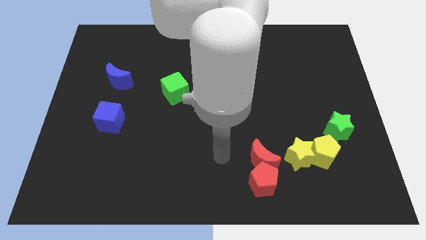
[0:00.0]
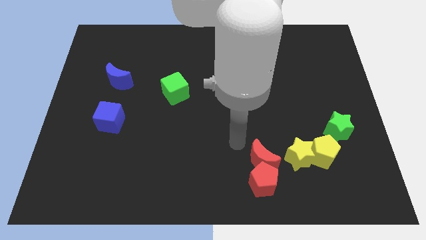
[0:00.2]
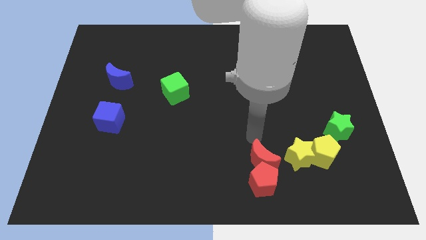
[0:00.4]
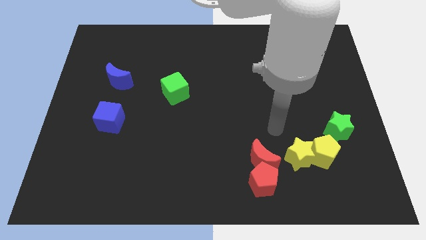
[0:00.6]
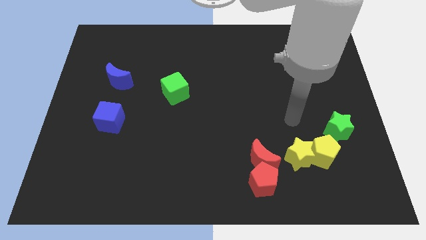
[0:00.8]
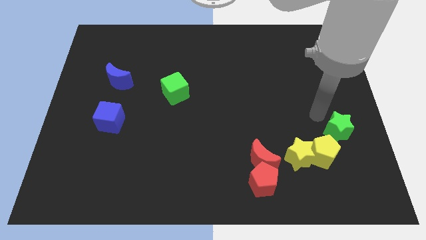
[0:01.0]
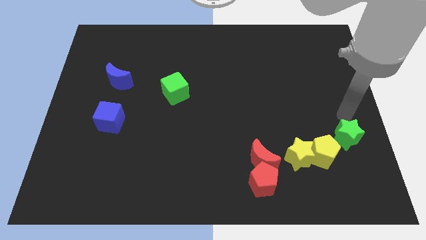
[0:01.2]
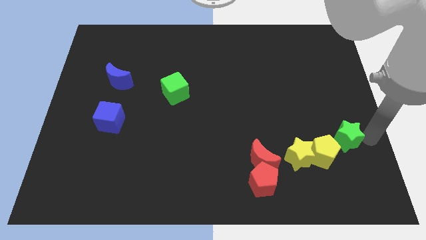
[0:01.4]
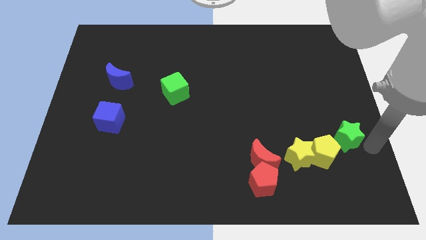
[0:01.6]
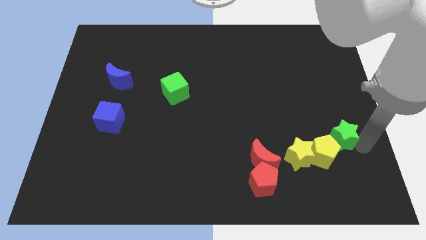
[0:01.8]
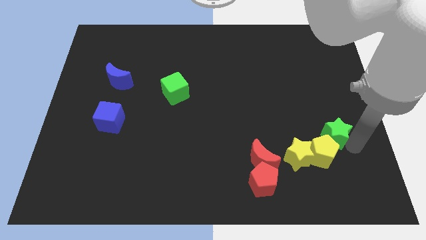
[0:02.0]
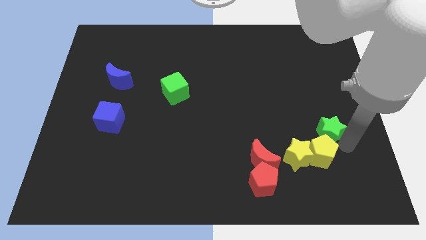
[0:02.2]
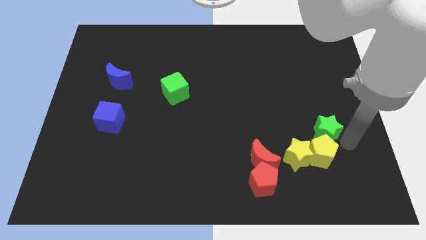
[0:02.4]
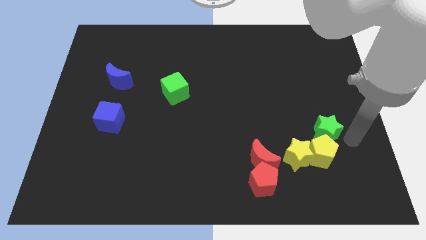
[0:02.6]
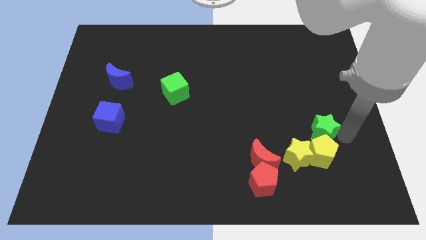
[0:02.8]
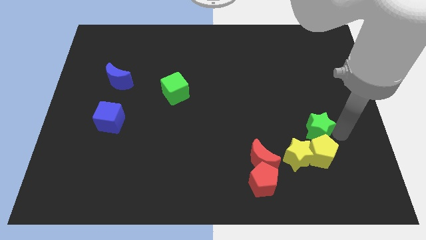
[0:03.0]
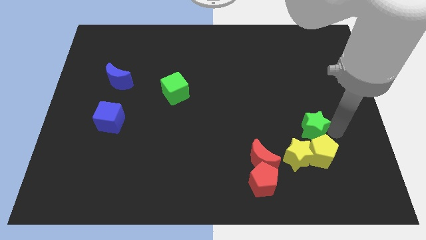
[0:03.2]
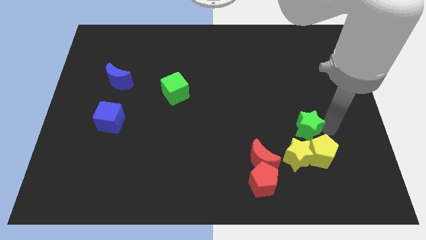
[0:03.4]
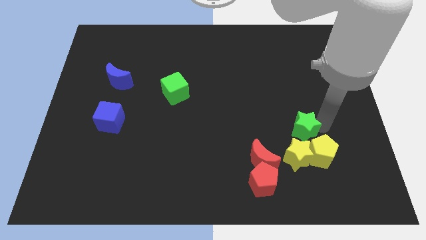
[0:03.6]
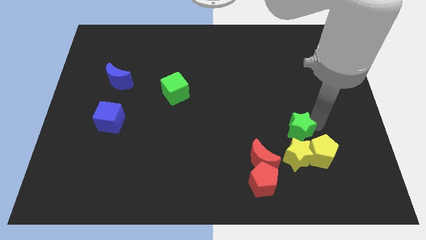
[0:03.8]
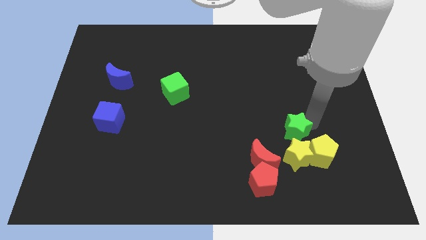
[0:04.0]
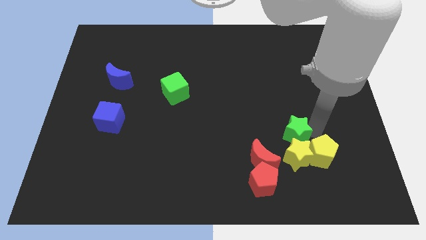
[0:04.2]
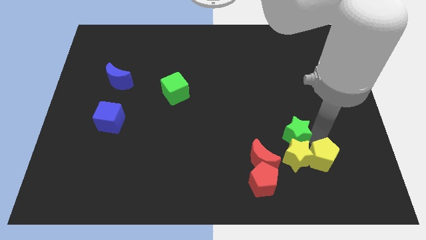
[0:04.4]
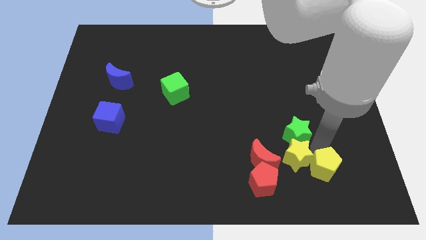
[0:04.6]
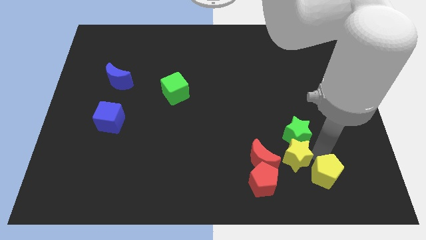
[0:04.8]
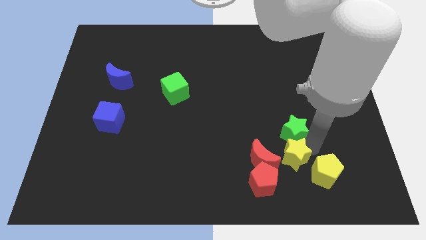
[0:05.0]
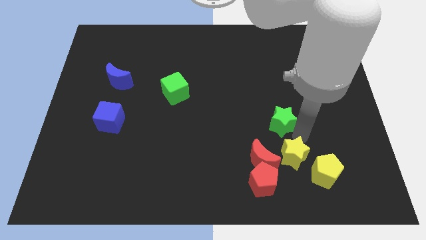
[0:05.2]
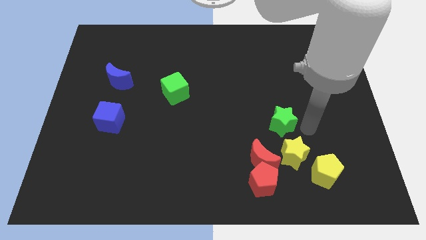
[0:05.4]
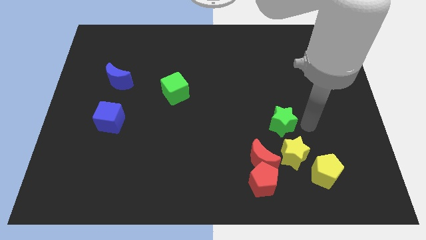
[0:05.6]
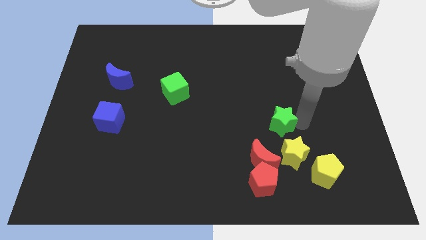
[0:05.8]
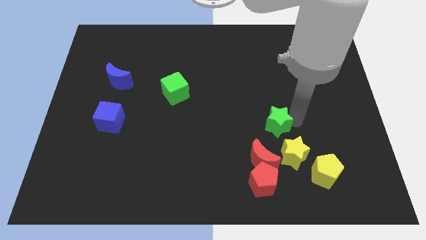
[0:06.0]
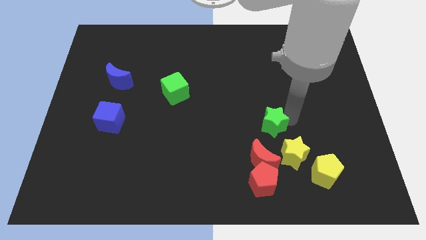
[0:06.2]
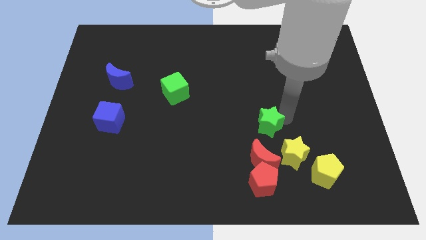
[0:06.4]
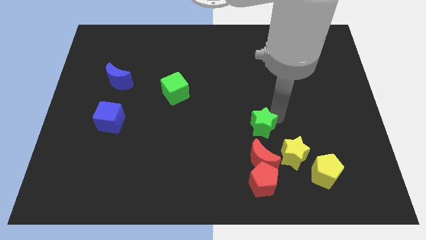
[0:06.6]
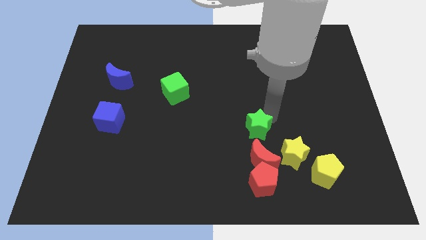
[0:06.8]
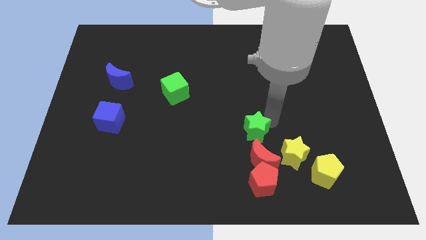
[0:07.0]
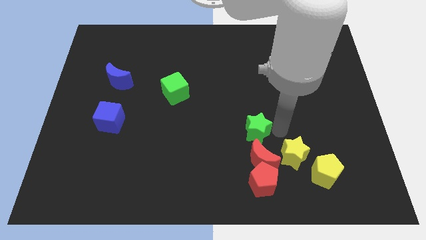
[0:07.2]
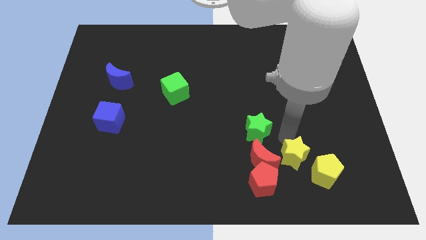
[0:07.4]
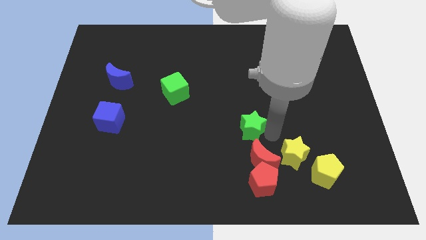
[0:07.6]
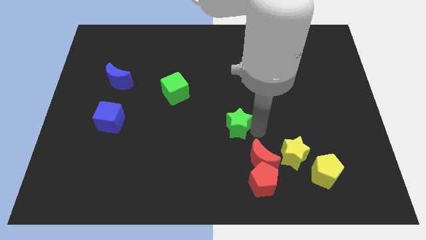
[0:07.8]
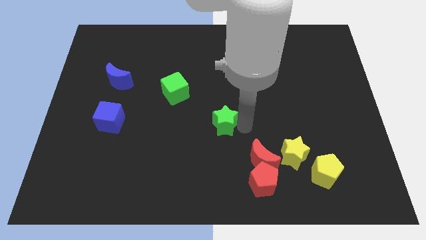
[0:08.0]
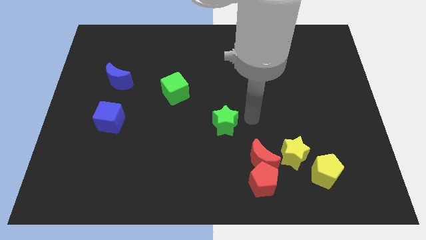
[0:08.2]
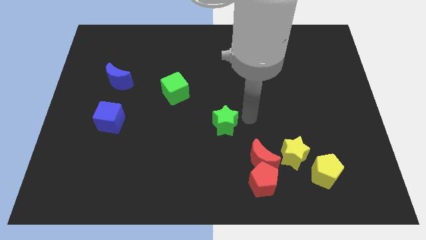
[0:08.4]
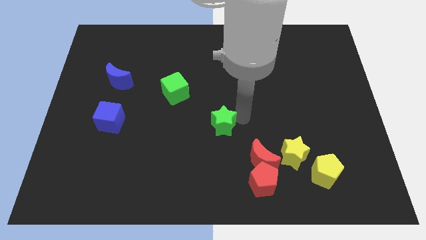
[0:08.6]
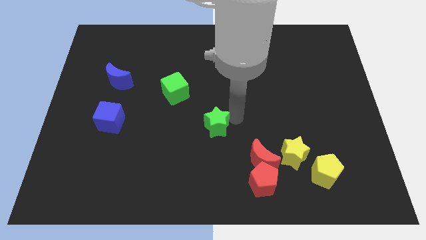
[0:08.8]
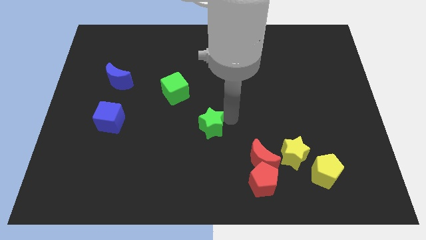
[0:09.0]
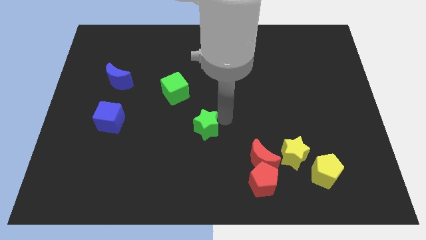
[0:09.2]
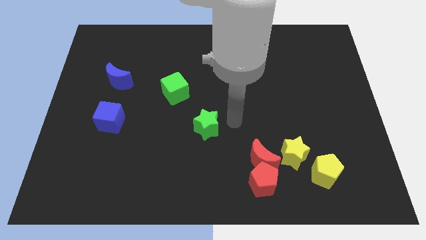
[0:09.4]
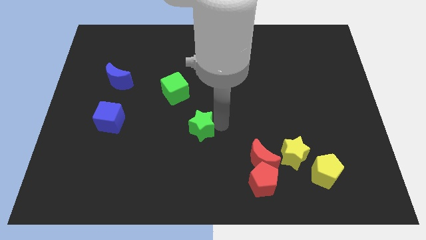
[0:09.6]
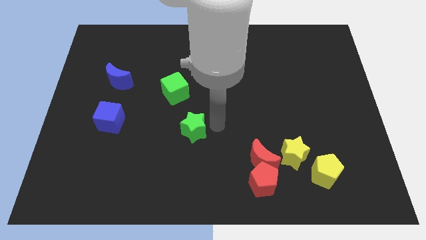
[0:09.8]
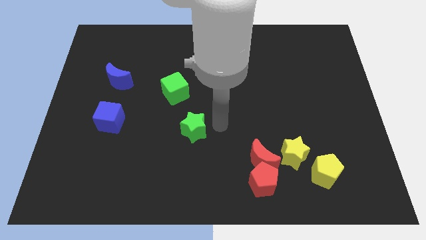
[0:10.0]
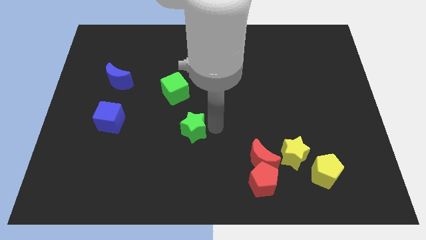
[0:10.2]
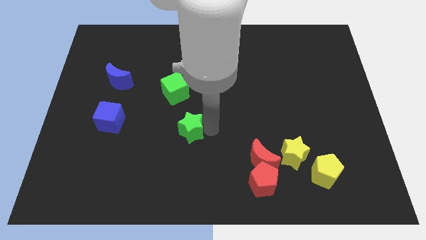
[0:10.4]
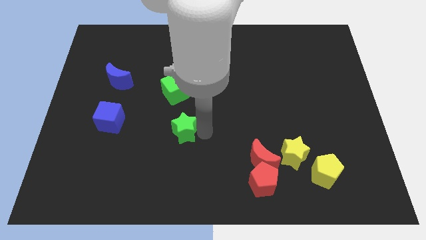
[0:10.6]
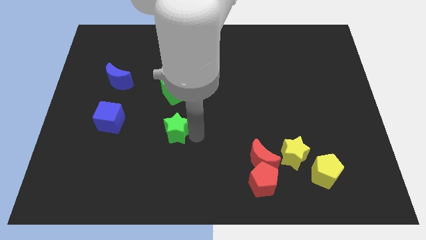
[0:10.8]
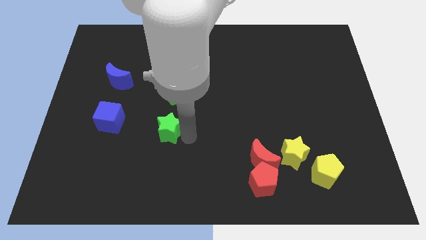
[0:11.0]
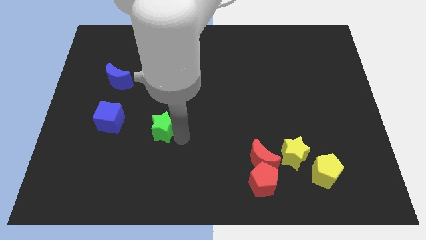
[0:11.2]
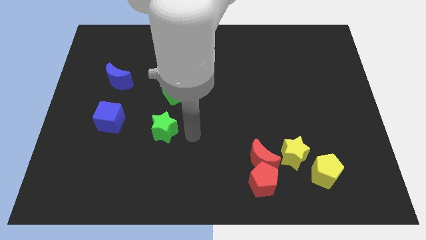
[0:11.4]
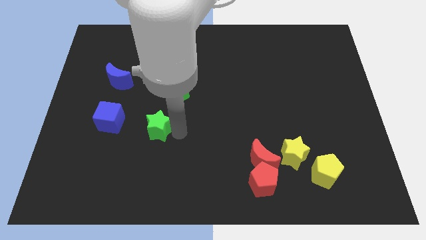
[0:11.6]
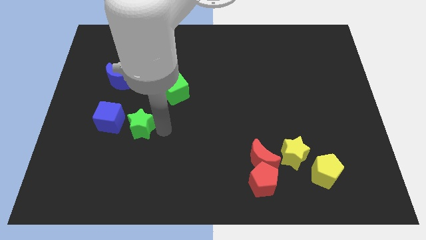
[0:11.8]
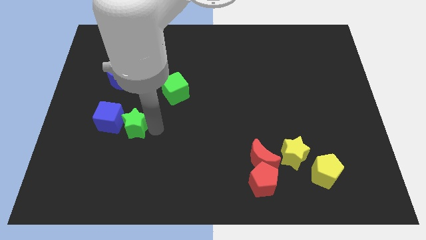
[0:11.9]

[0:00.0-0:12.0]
slide the green star to the blue cube

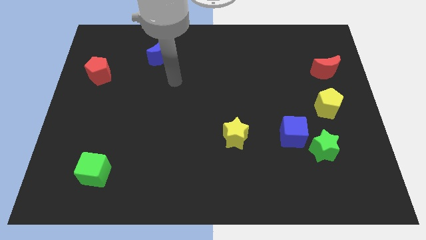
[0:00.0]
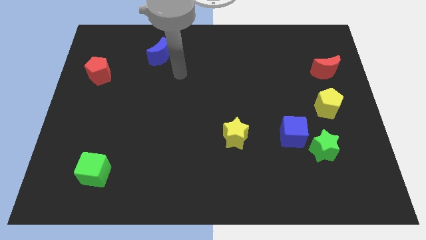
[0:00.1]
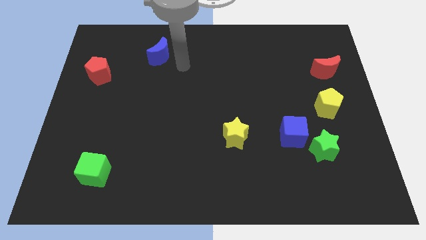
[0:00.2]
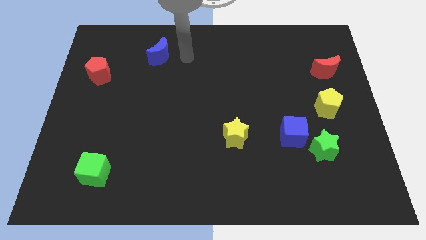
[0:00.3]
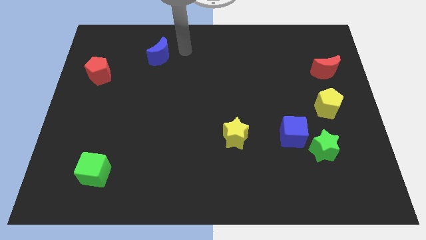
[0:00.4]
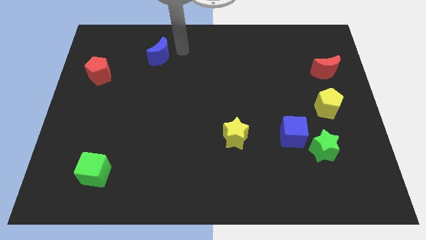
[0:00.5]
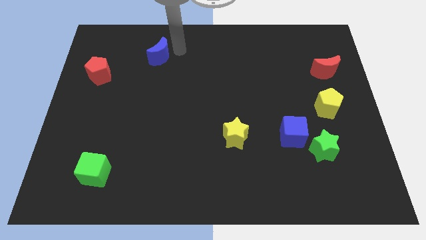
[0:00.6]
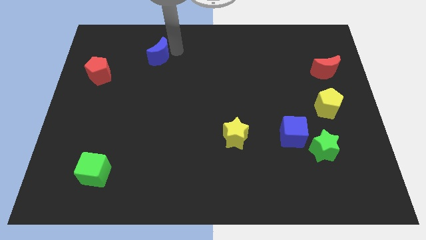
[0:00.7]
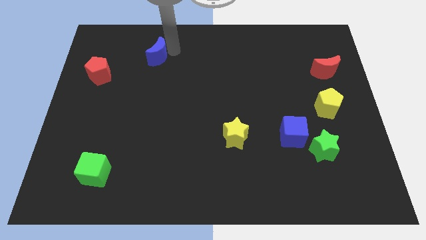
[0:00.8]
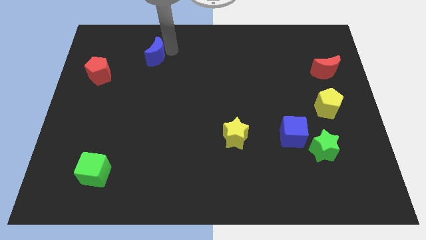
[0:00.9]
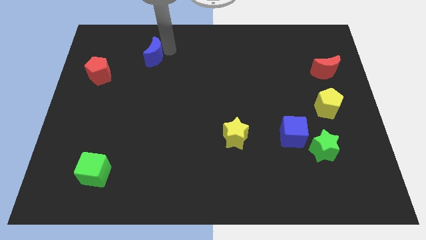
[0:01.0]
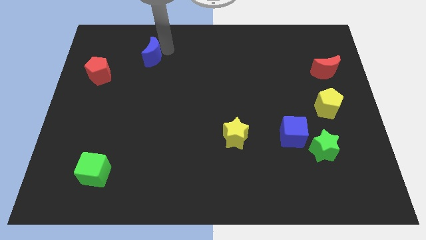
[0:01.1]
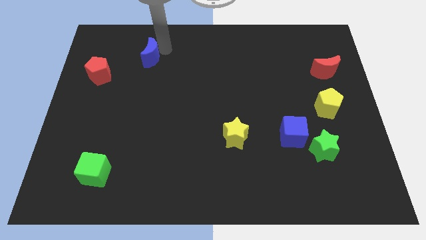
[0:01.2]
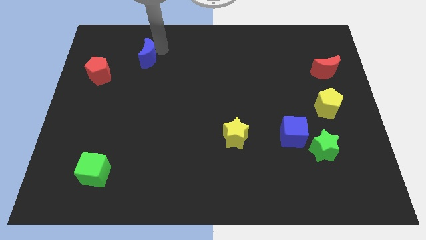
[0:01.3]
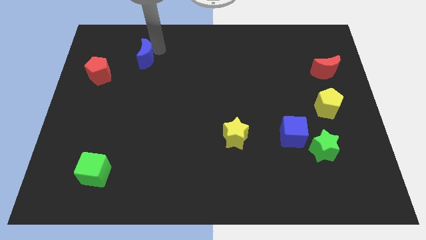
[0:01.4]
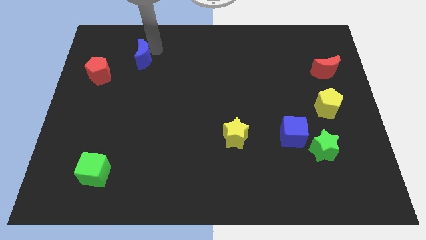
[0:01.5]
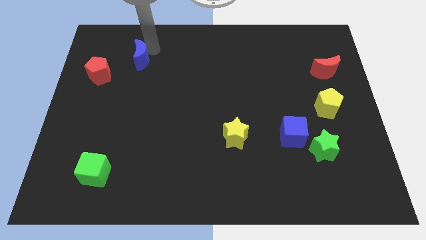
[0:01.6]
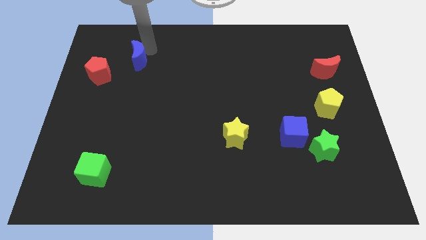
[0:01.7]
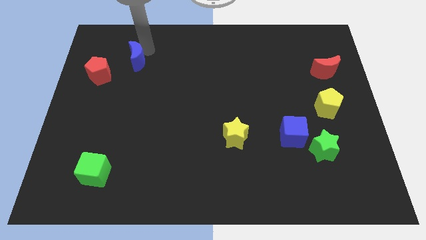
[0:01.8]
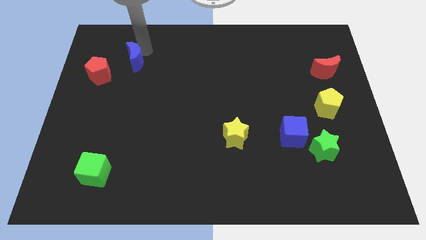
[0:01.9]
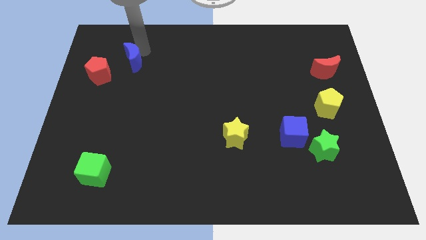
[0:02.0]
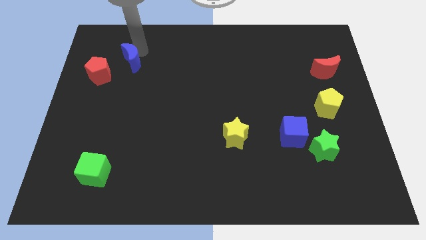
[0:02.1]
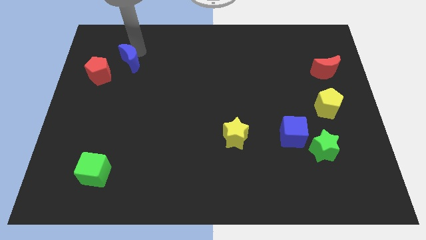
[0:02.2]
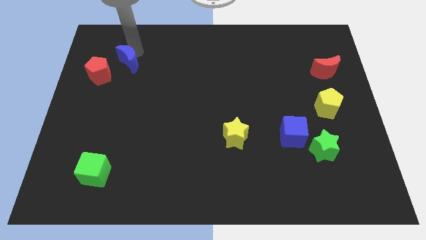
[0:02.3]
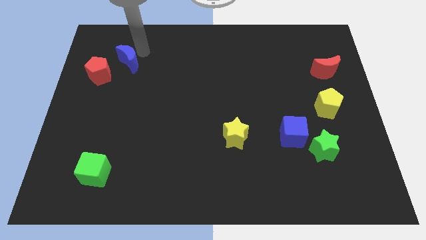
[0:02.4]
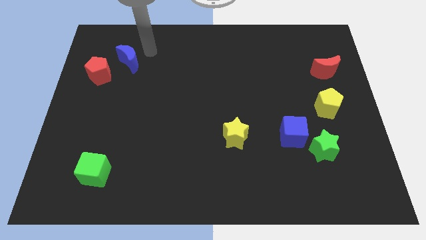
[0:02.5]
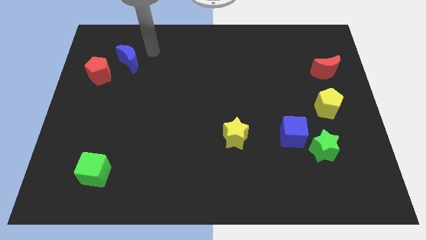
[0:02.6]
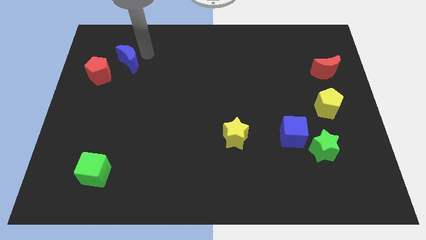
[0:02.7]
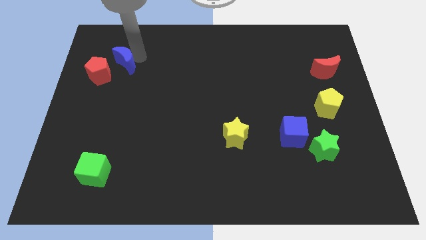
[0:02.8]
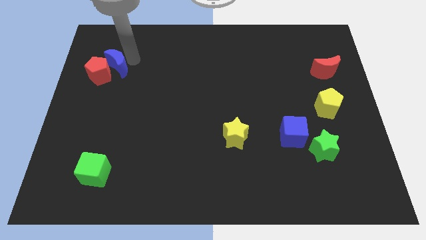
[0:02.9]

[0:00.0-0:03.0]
push the blue moon close to the red pentagon
